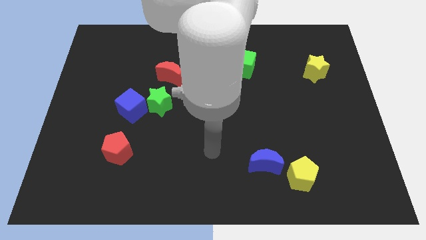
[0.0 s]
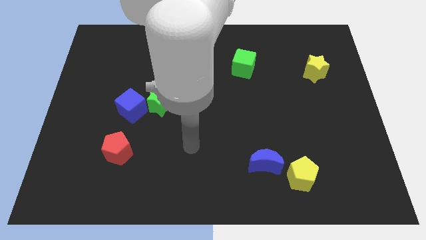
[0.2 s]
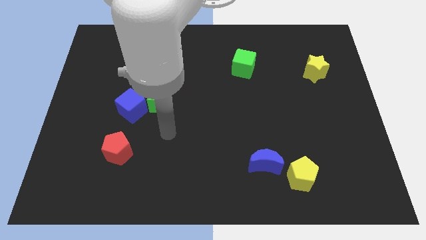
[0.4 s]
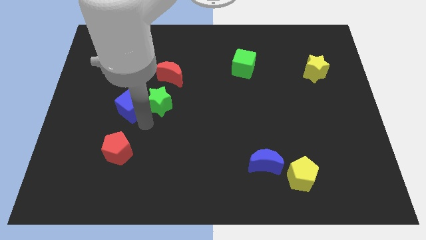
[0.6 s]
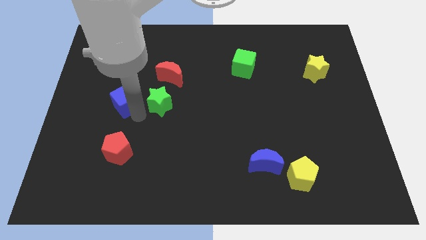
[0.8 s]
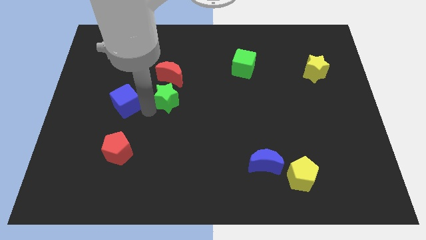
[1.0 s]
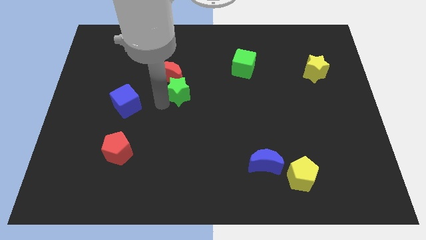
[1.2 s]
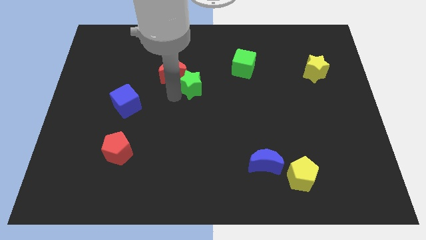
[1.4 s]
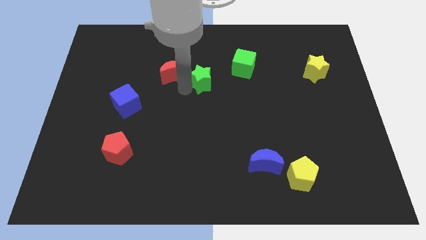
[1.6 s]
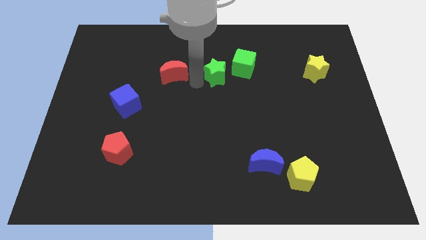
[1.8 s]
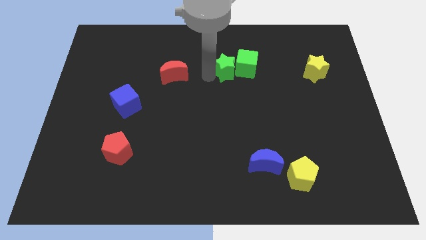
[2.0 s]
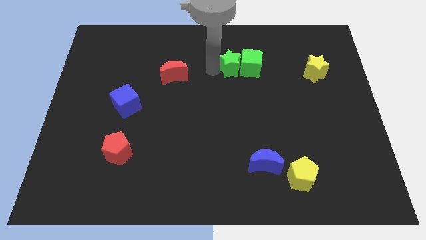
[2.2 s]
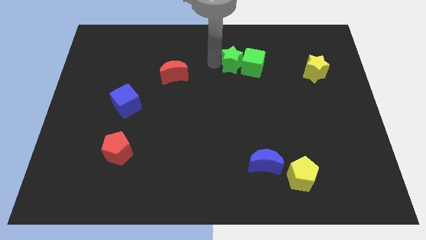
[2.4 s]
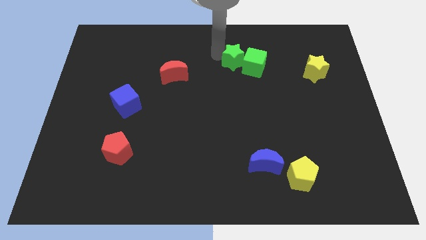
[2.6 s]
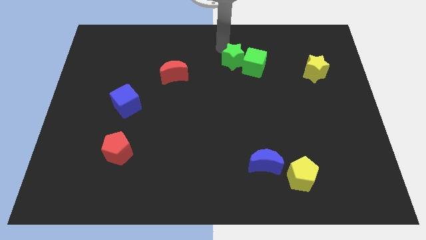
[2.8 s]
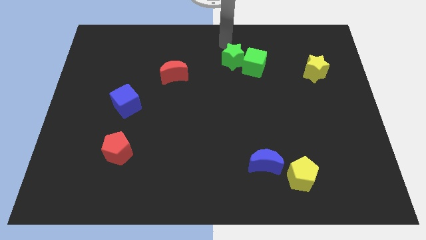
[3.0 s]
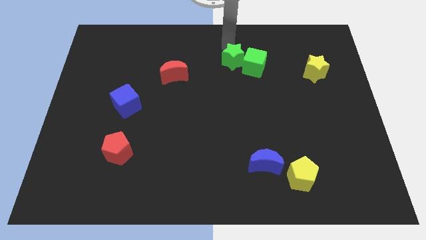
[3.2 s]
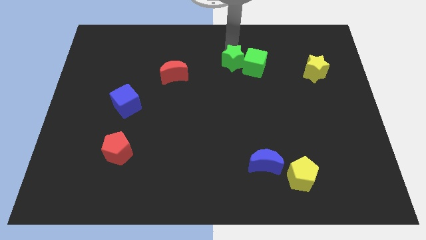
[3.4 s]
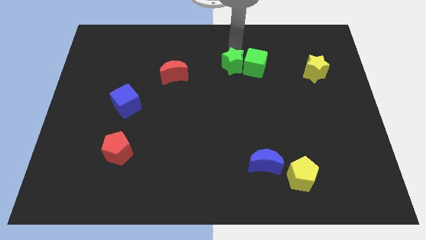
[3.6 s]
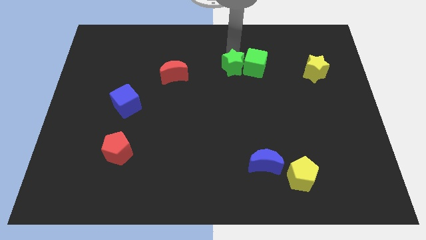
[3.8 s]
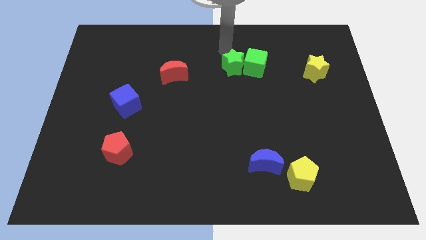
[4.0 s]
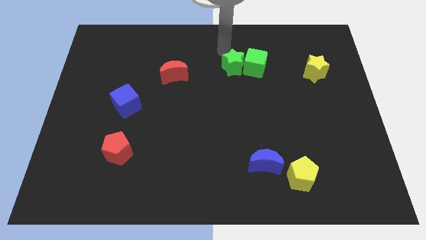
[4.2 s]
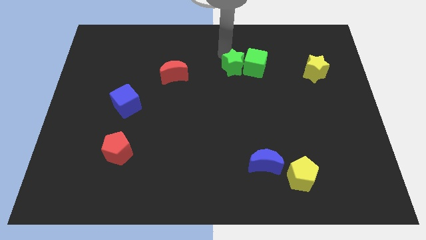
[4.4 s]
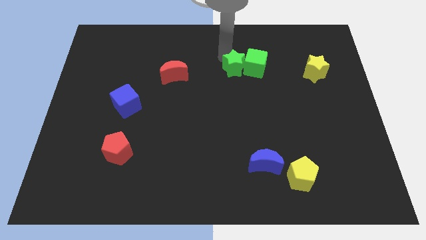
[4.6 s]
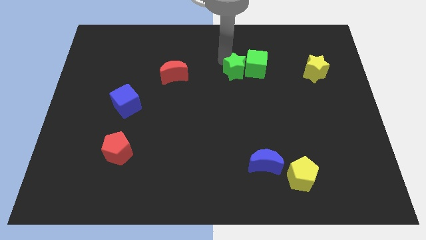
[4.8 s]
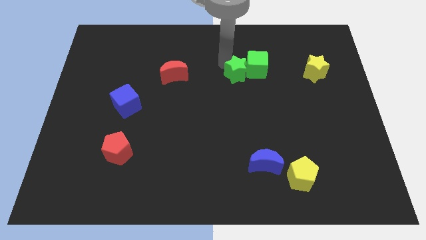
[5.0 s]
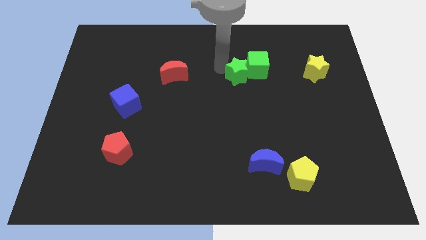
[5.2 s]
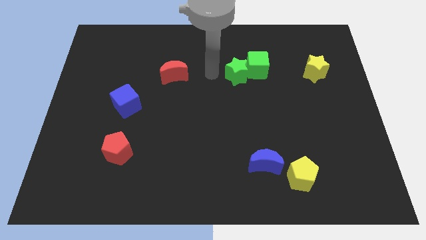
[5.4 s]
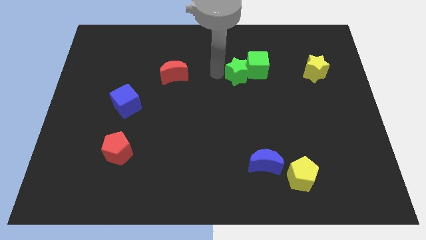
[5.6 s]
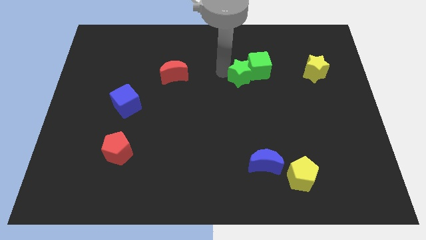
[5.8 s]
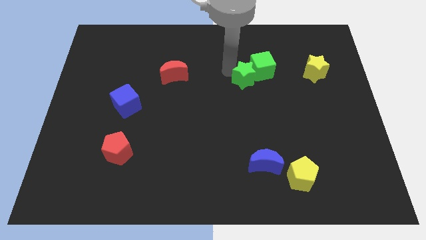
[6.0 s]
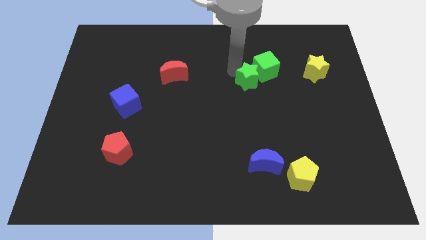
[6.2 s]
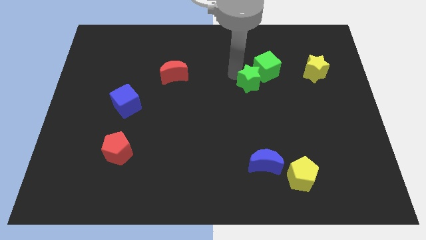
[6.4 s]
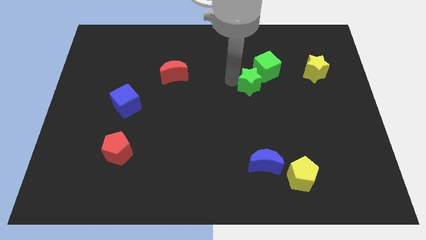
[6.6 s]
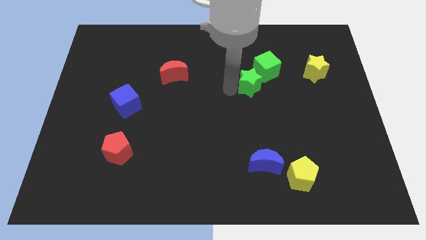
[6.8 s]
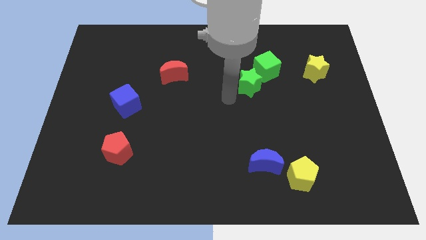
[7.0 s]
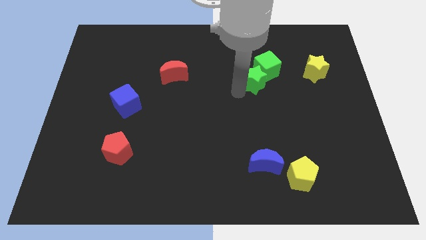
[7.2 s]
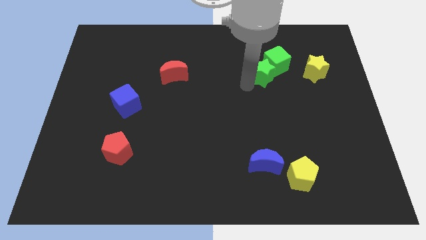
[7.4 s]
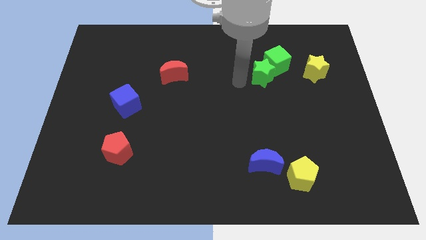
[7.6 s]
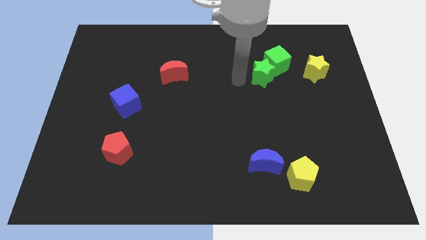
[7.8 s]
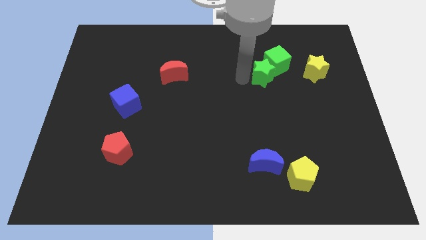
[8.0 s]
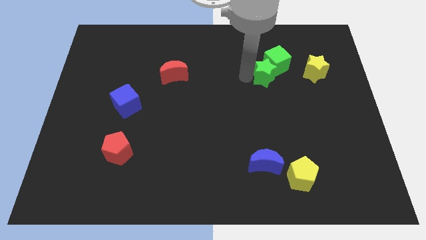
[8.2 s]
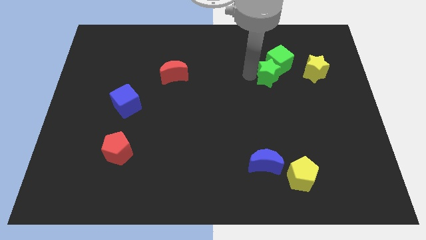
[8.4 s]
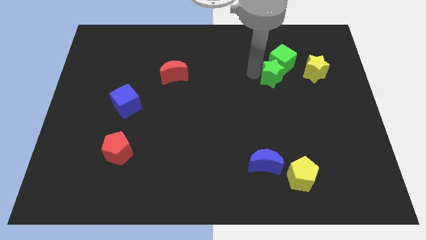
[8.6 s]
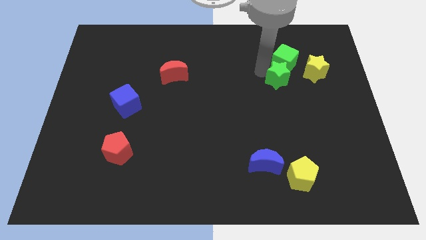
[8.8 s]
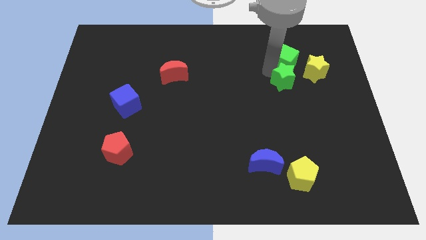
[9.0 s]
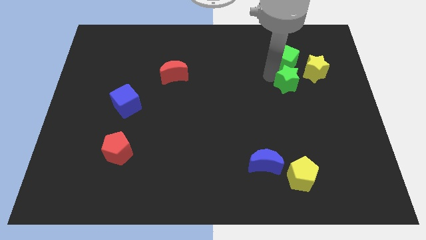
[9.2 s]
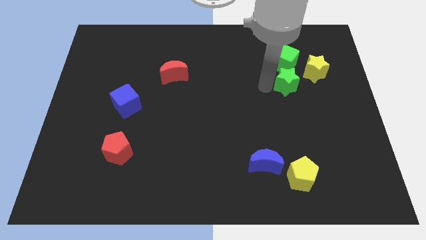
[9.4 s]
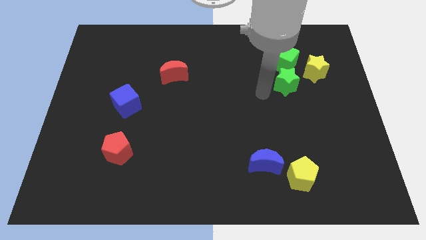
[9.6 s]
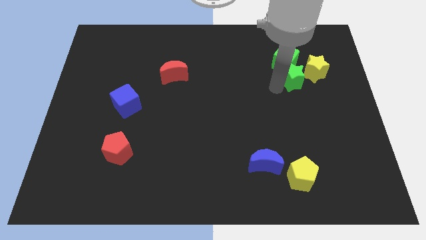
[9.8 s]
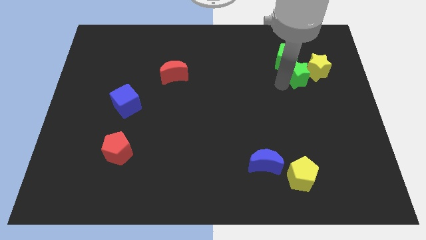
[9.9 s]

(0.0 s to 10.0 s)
put the green star to the yellow star

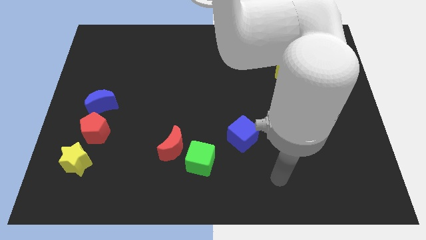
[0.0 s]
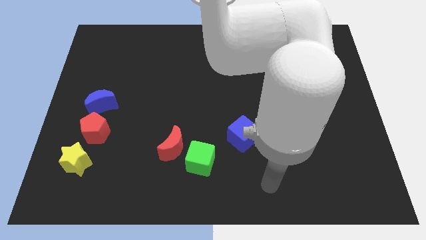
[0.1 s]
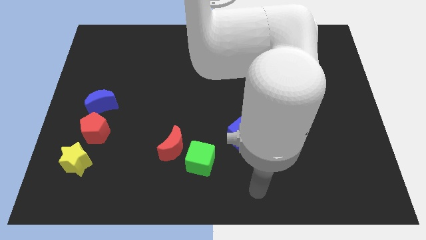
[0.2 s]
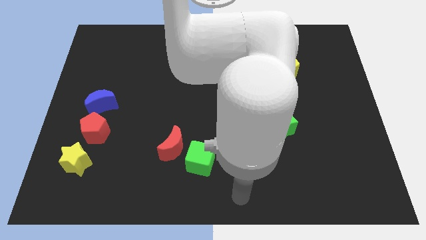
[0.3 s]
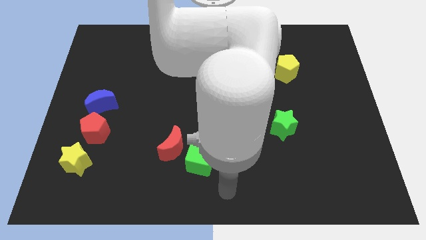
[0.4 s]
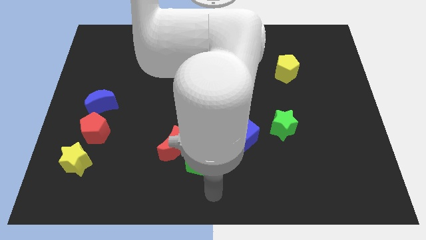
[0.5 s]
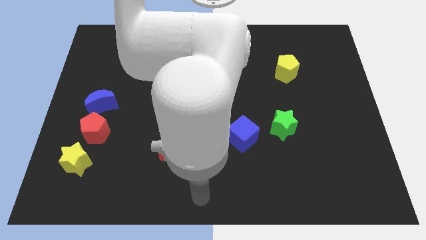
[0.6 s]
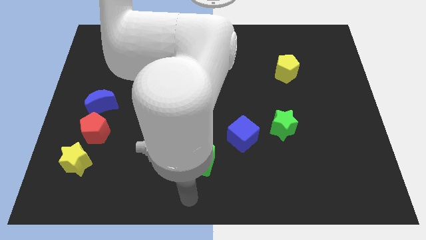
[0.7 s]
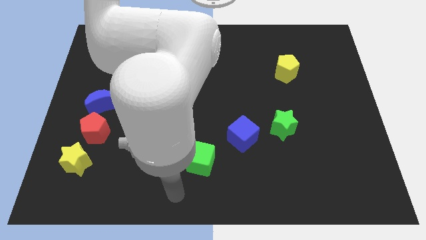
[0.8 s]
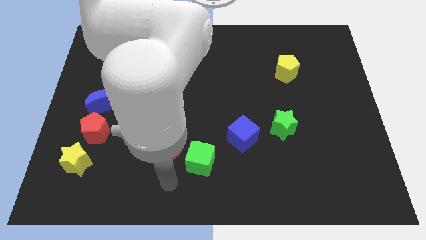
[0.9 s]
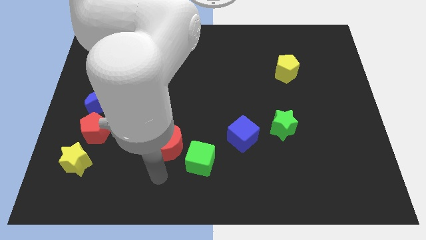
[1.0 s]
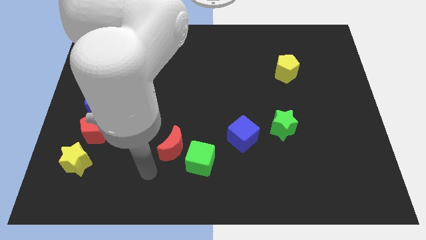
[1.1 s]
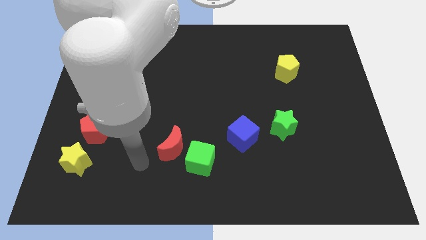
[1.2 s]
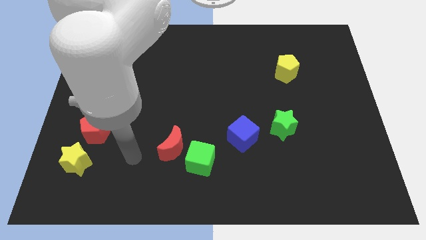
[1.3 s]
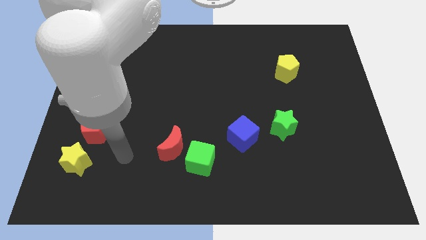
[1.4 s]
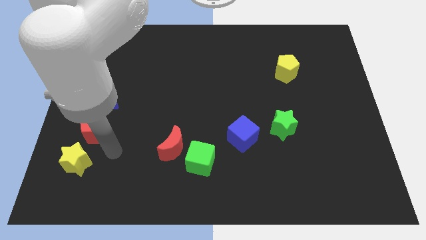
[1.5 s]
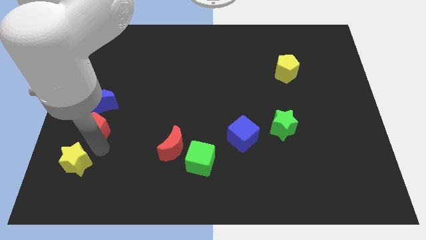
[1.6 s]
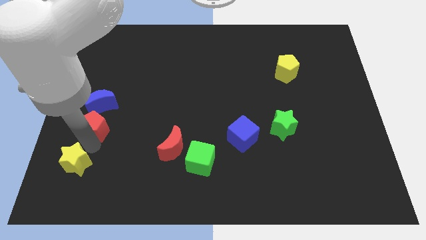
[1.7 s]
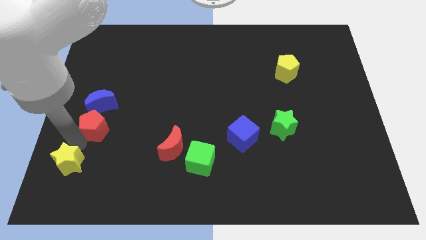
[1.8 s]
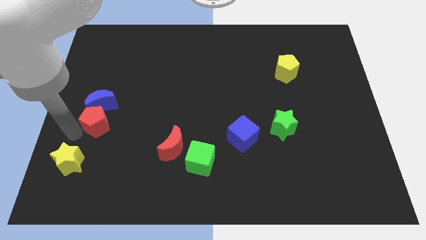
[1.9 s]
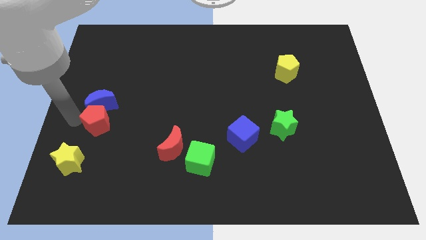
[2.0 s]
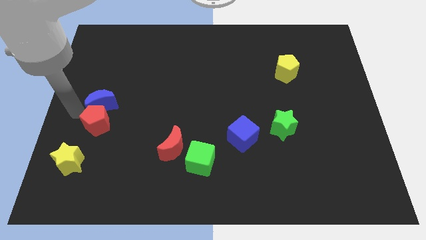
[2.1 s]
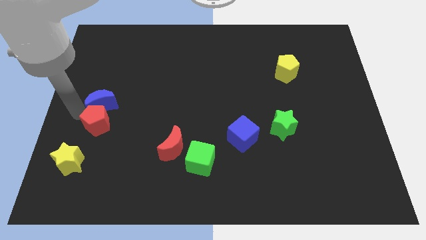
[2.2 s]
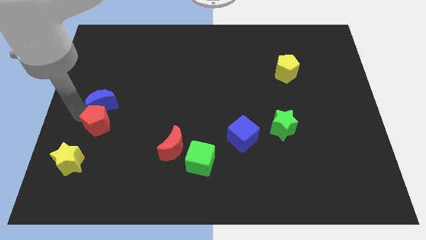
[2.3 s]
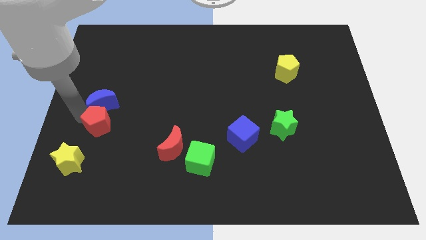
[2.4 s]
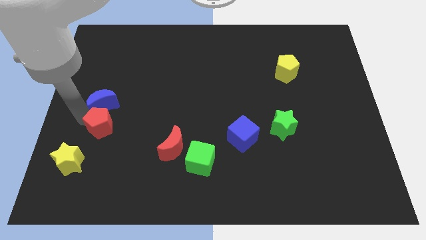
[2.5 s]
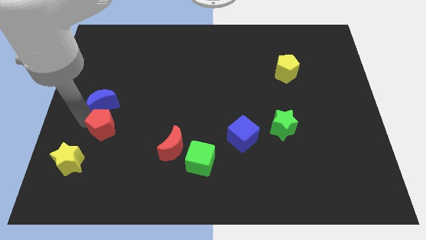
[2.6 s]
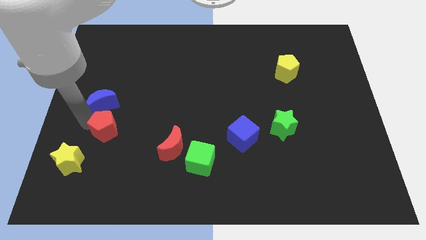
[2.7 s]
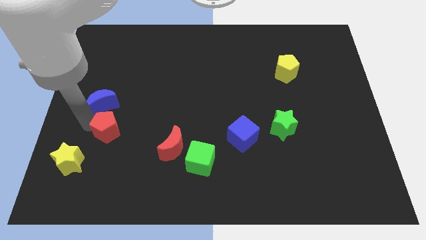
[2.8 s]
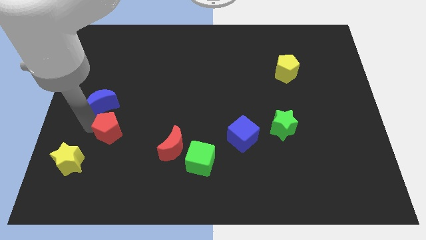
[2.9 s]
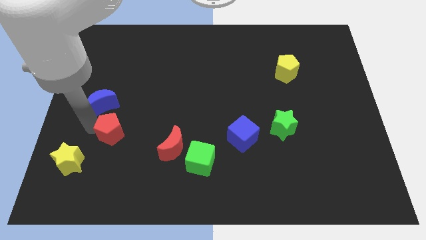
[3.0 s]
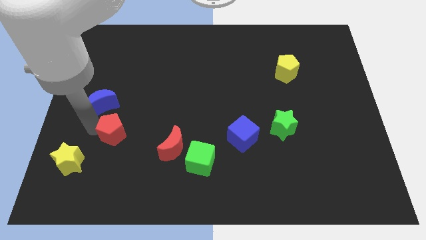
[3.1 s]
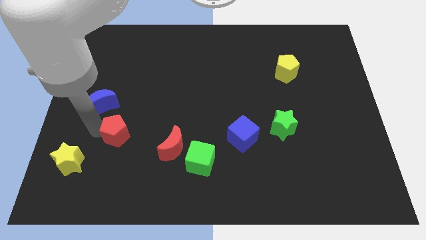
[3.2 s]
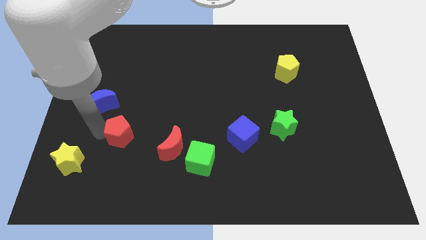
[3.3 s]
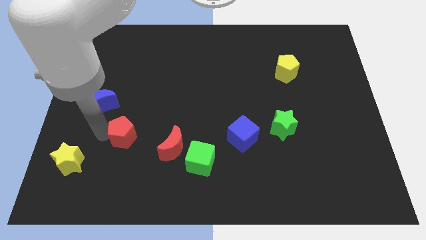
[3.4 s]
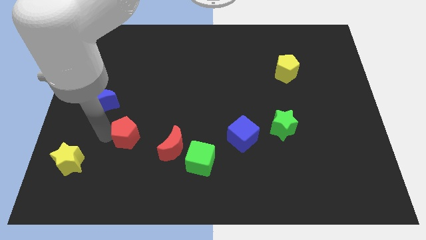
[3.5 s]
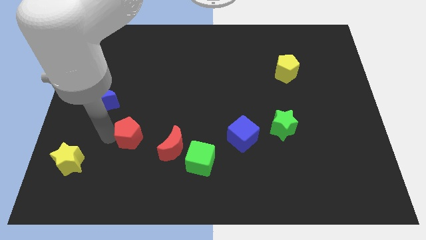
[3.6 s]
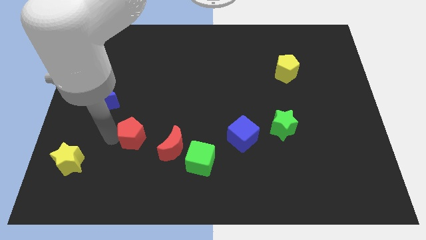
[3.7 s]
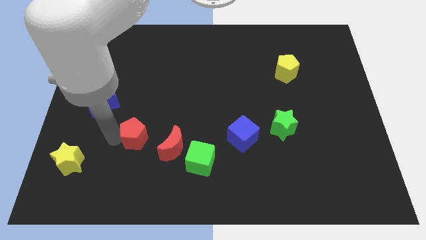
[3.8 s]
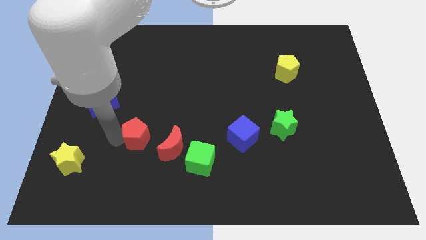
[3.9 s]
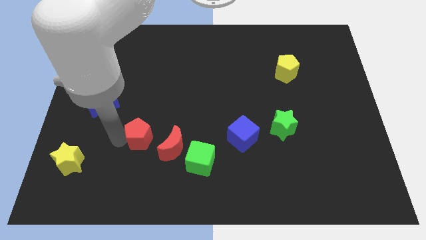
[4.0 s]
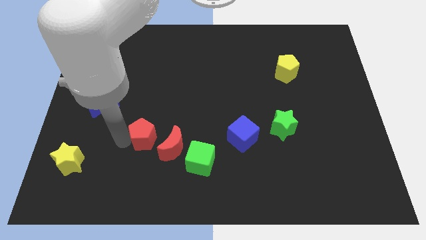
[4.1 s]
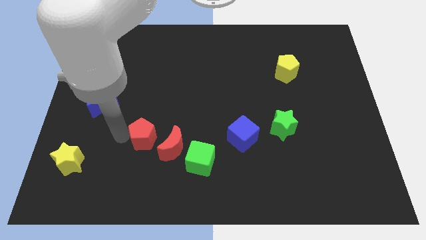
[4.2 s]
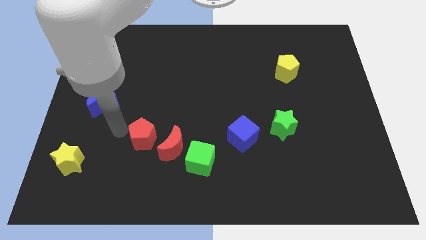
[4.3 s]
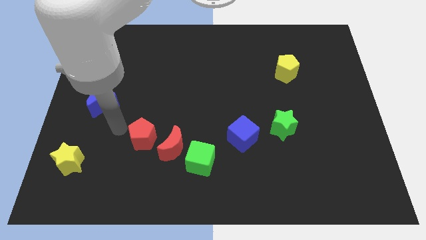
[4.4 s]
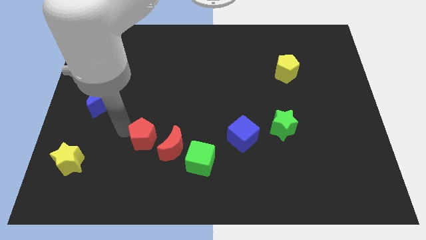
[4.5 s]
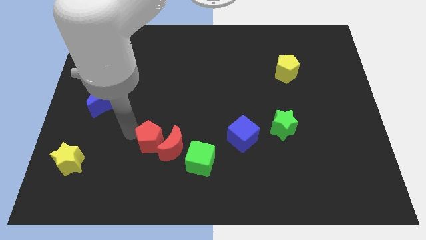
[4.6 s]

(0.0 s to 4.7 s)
slide the red pentagon next to the red moon
